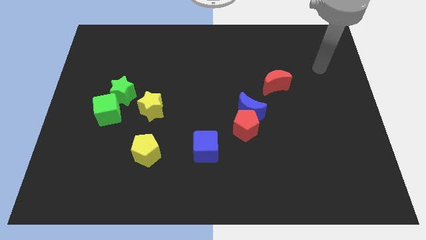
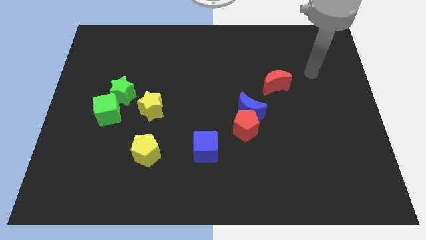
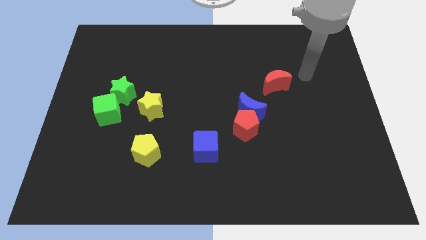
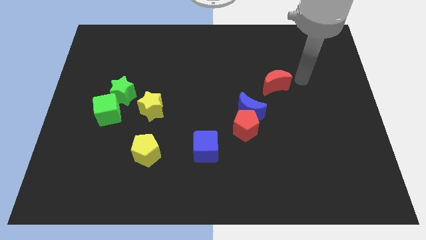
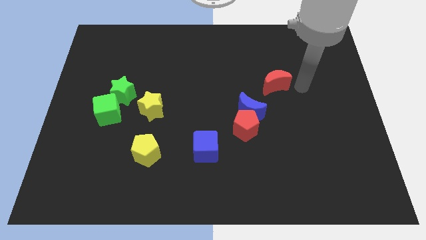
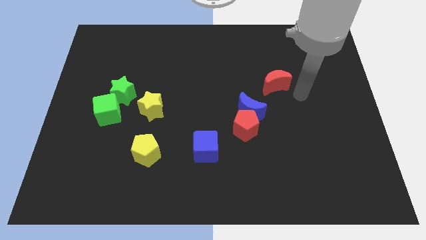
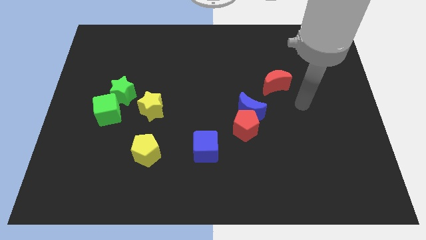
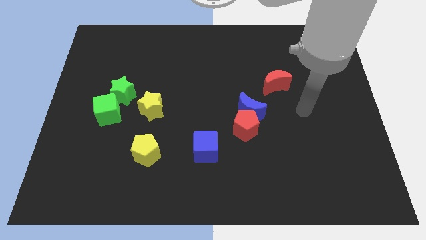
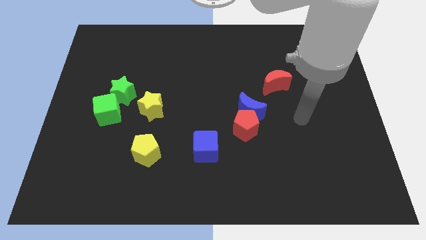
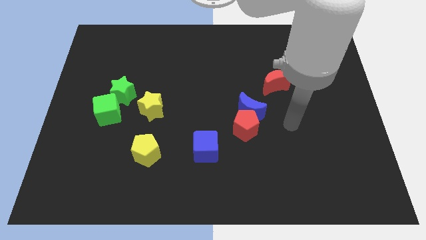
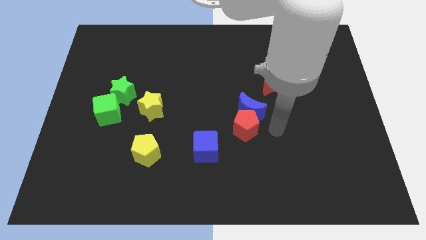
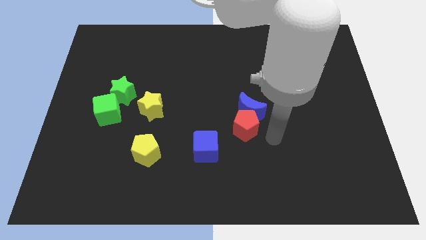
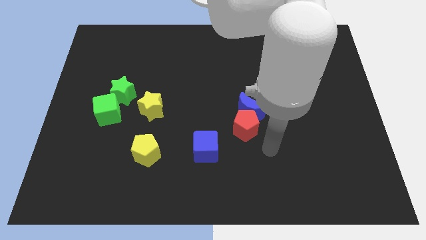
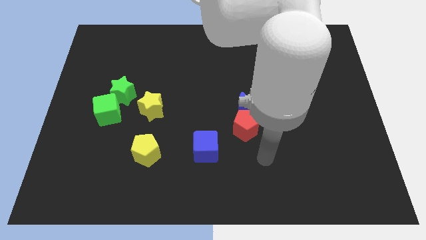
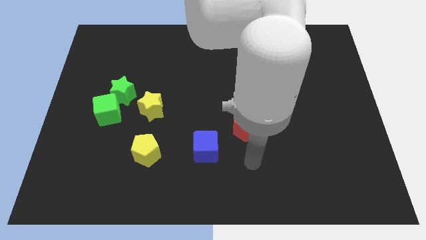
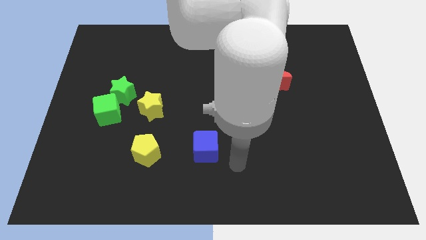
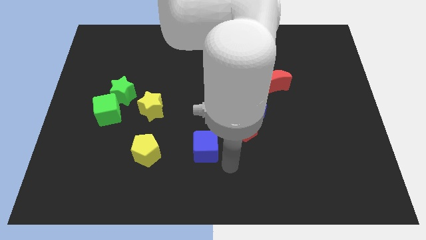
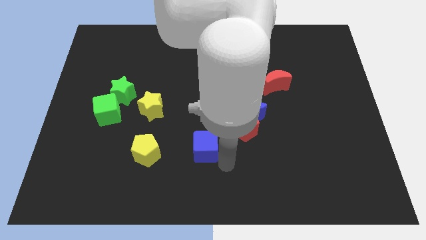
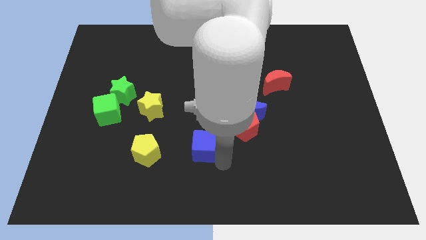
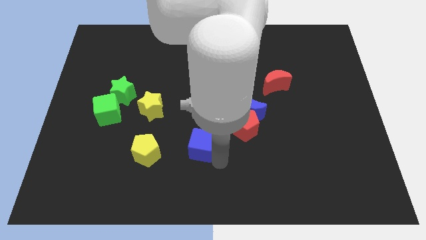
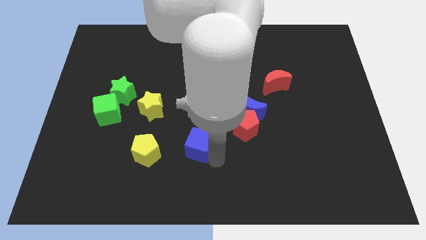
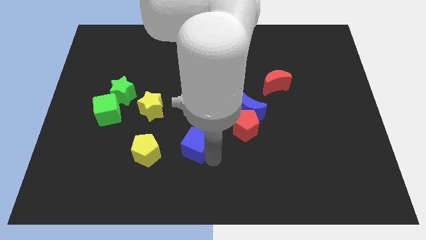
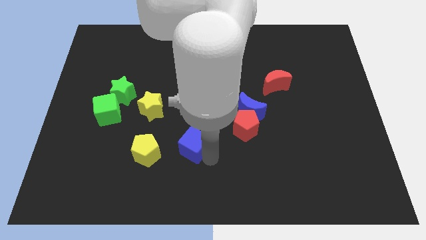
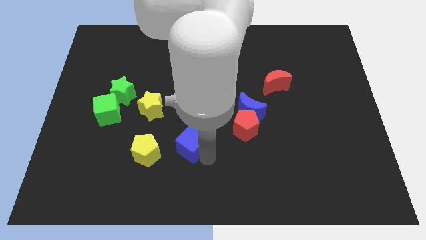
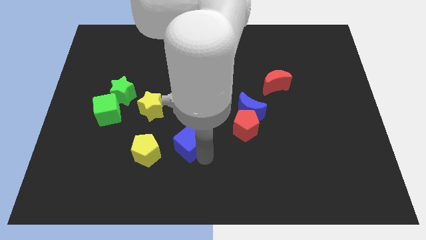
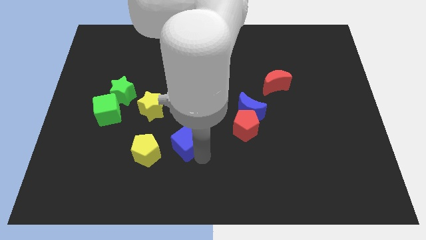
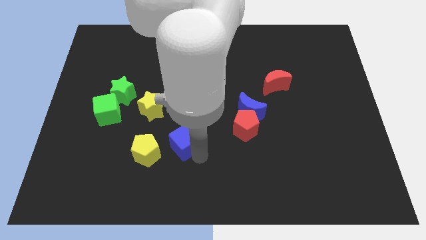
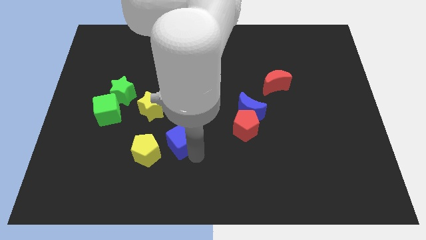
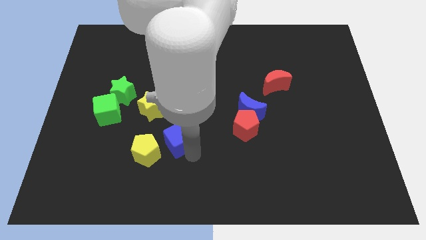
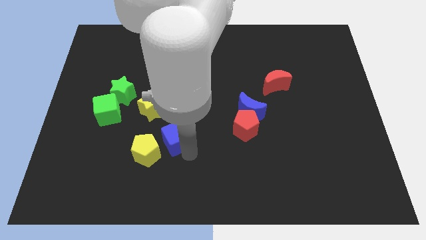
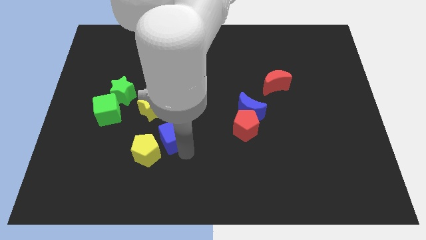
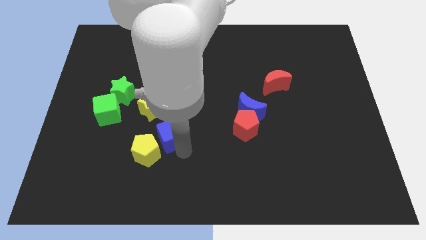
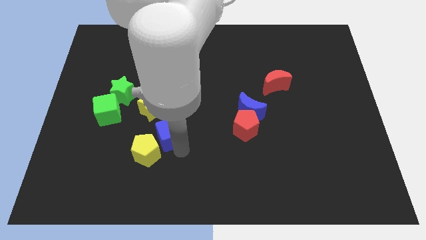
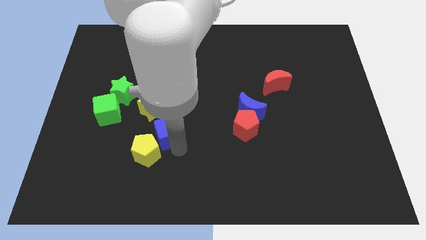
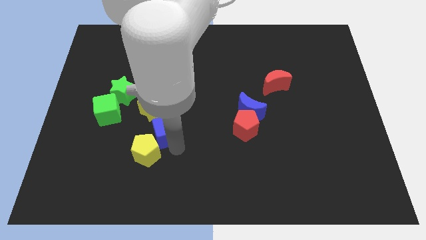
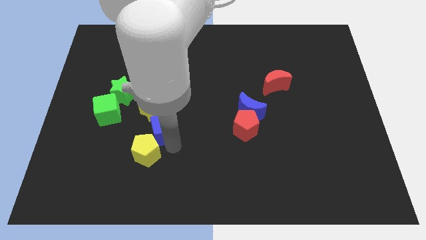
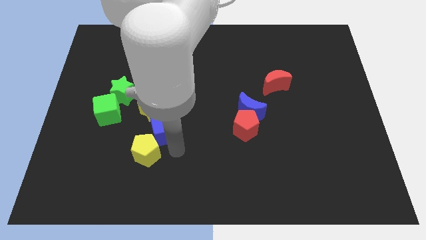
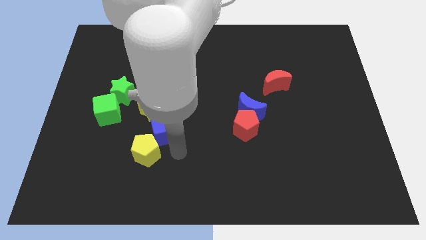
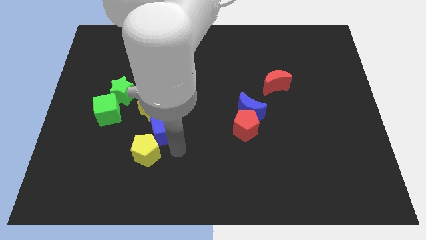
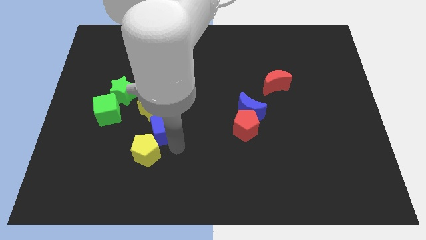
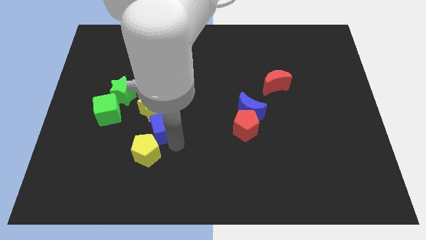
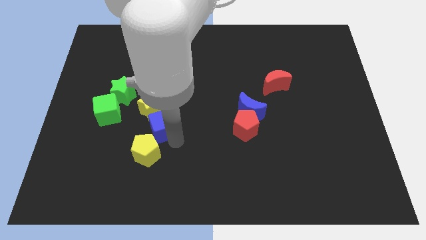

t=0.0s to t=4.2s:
slide the blue cube towards the yellow star

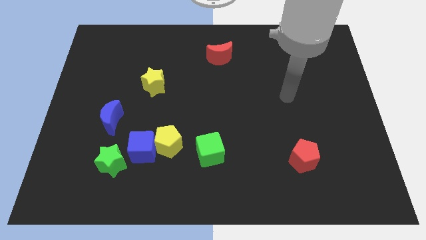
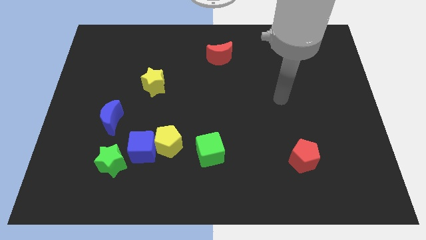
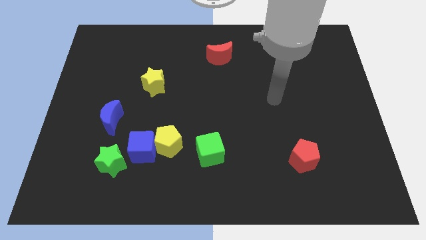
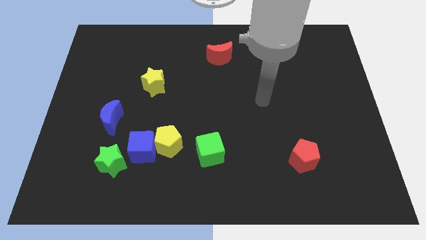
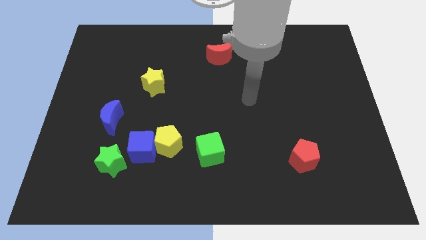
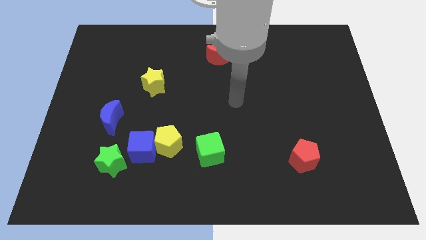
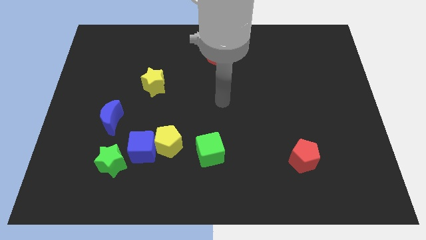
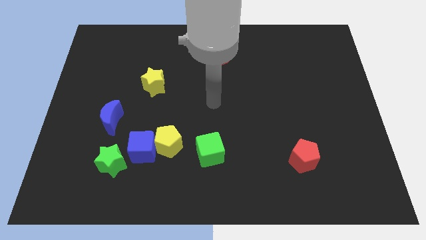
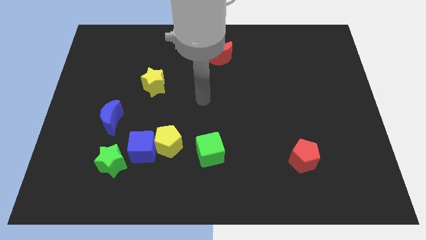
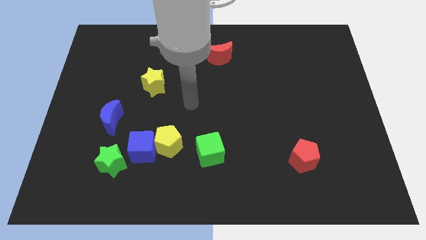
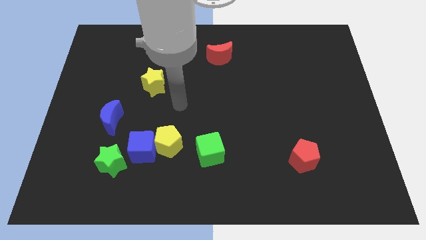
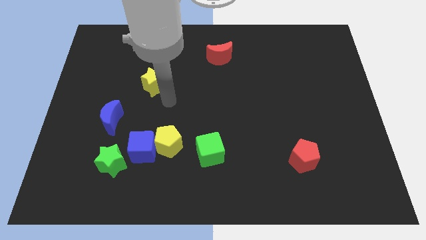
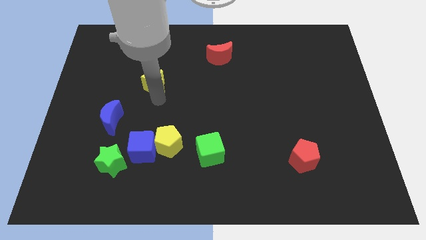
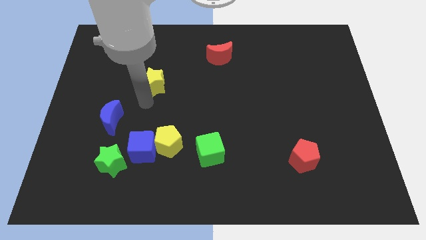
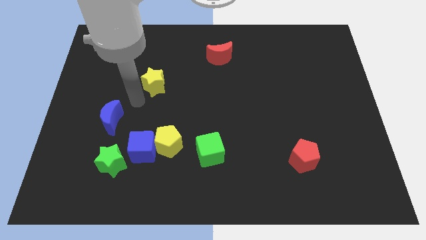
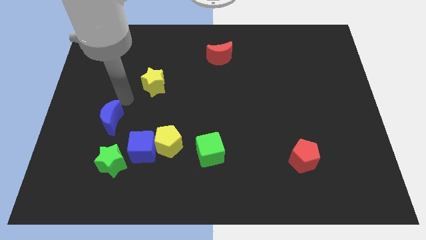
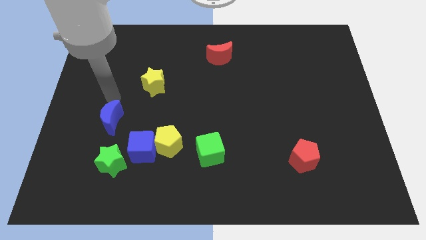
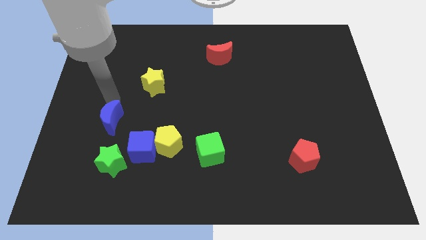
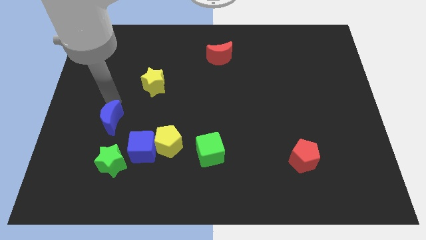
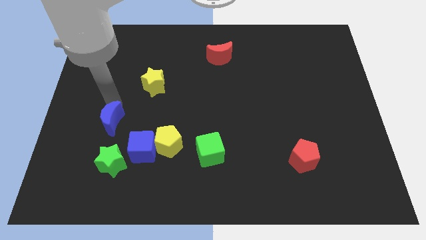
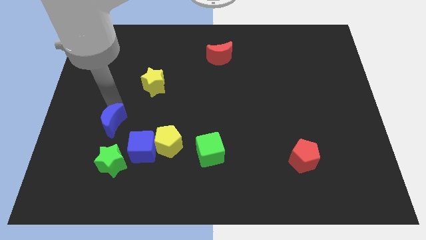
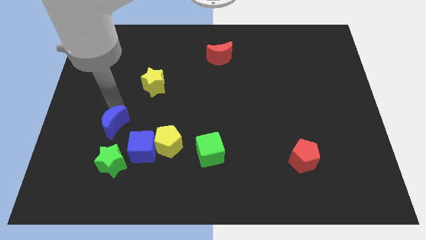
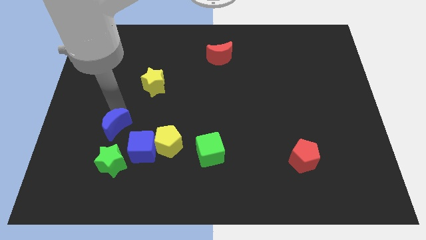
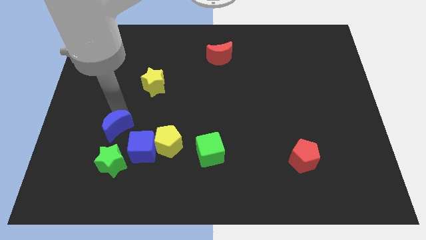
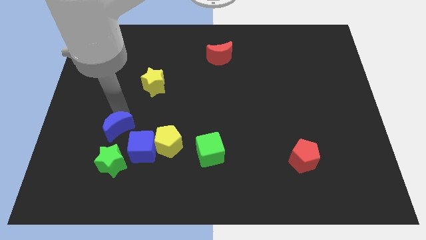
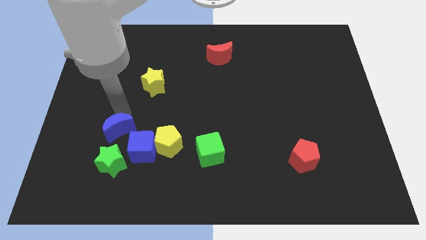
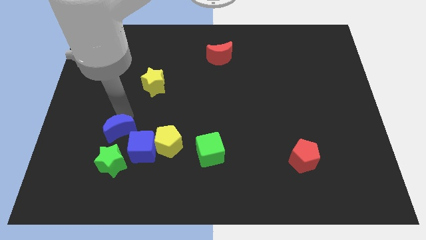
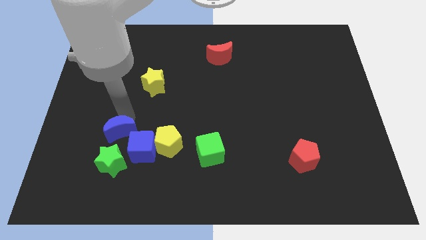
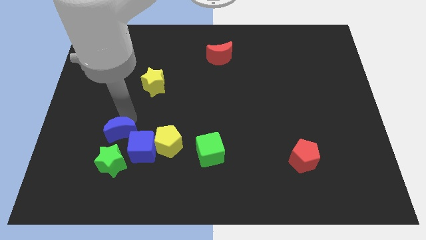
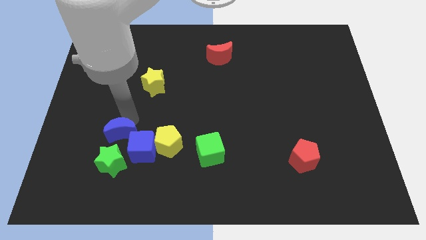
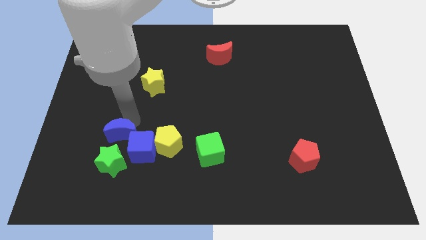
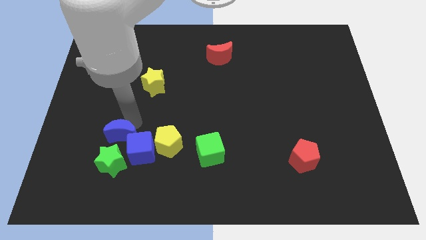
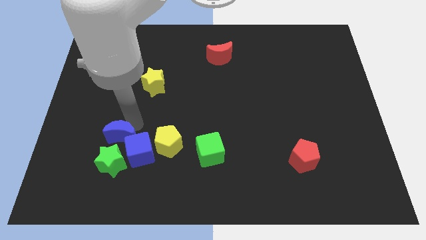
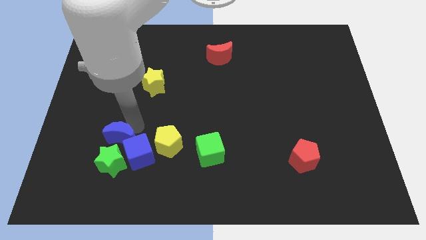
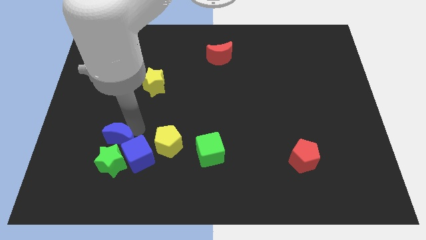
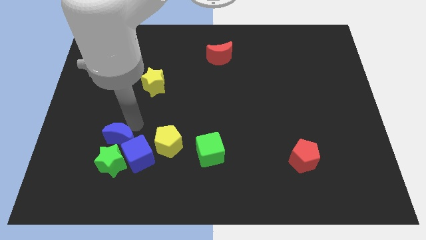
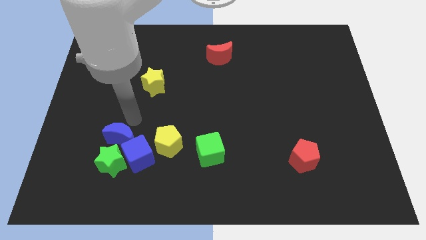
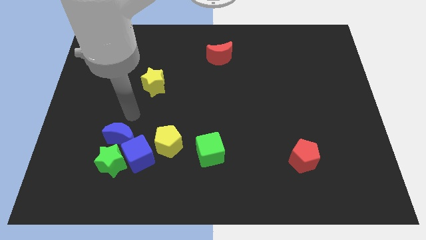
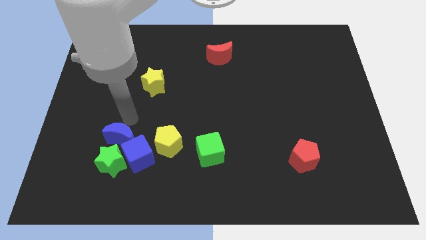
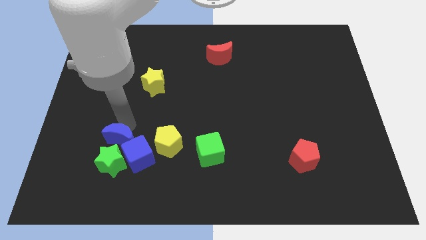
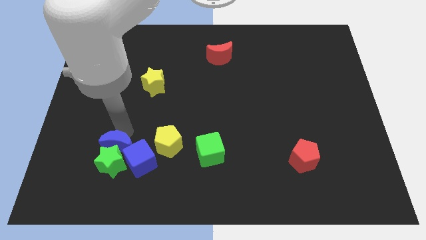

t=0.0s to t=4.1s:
move the blue moon to the green star
